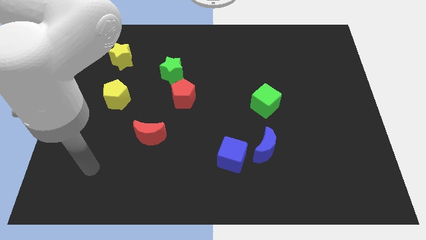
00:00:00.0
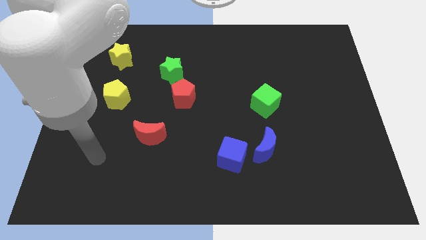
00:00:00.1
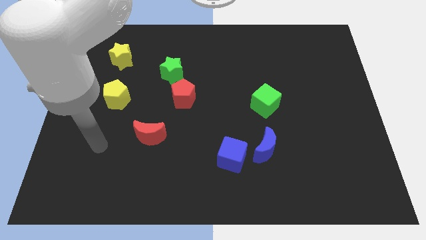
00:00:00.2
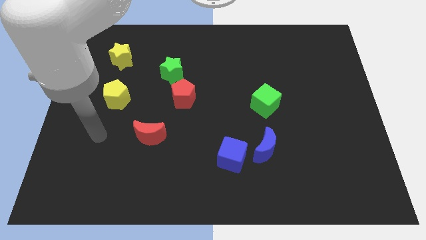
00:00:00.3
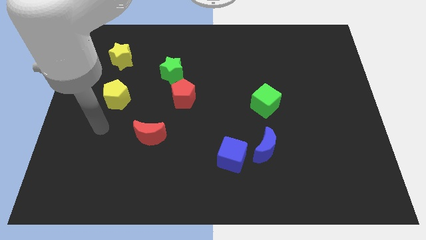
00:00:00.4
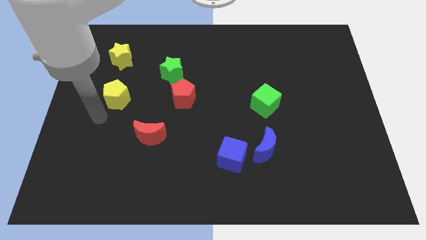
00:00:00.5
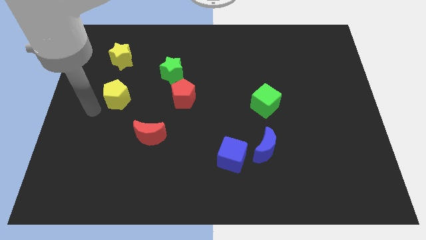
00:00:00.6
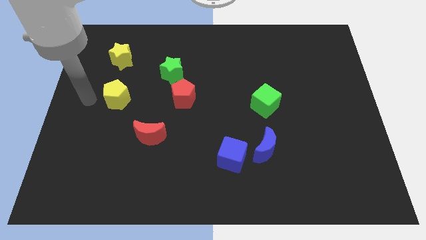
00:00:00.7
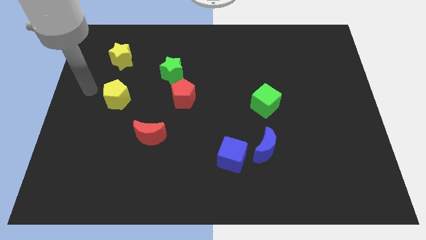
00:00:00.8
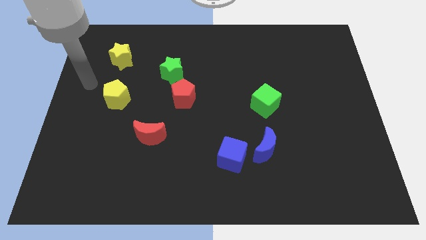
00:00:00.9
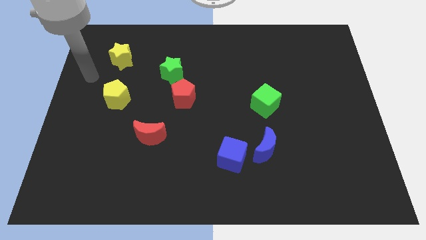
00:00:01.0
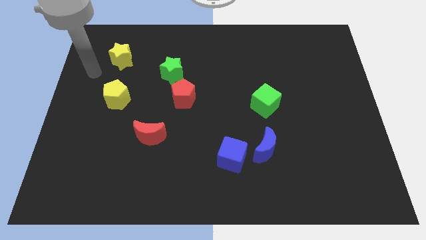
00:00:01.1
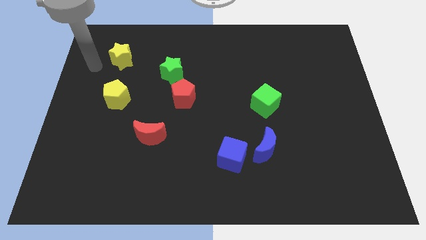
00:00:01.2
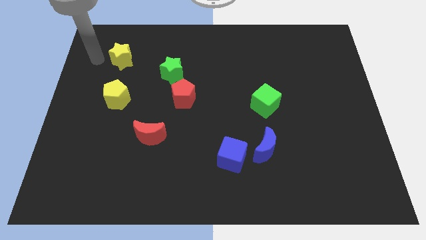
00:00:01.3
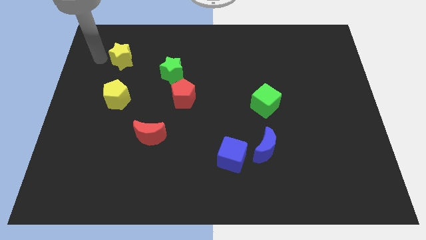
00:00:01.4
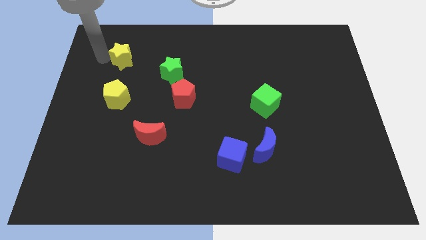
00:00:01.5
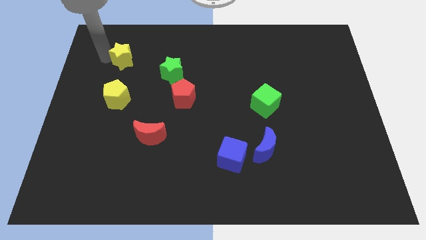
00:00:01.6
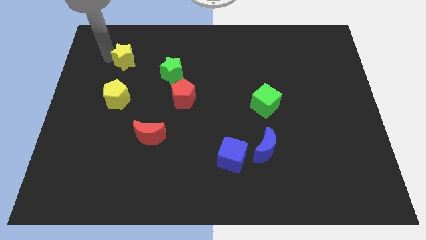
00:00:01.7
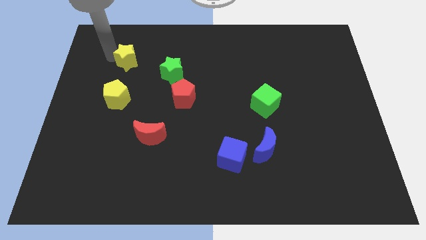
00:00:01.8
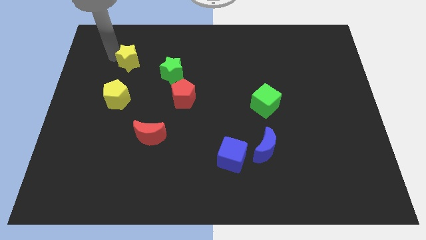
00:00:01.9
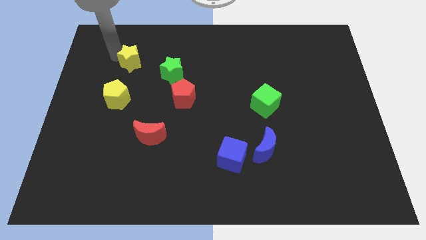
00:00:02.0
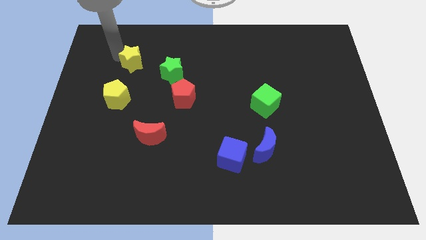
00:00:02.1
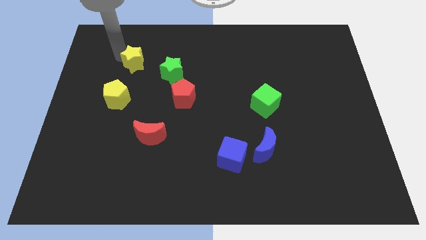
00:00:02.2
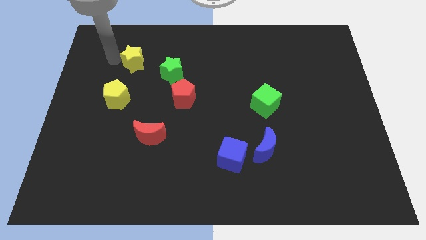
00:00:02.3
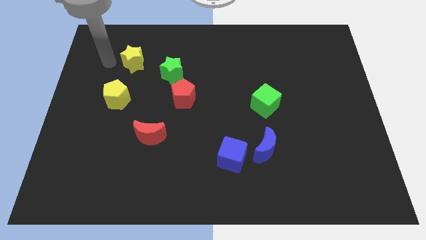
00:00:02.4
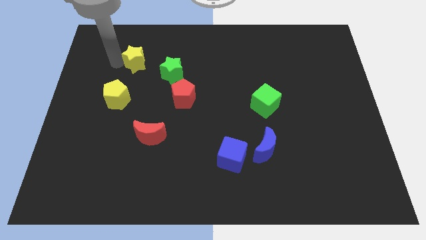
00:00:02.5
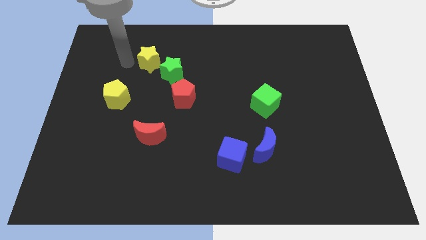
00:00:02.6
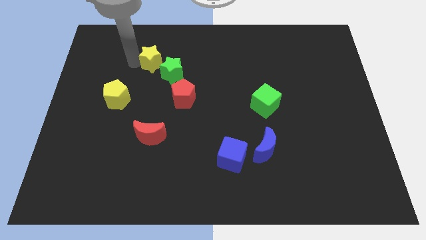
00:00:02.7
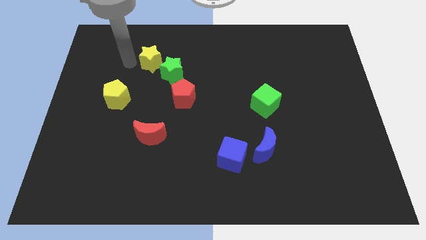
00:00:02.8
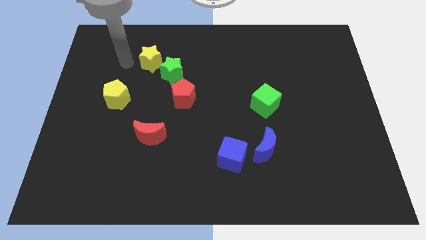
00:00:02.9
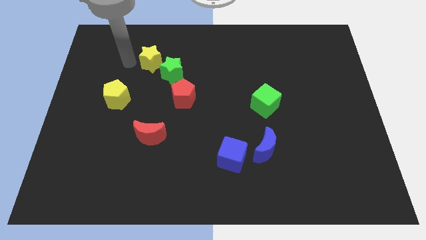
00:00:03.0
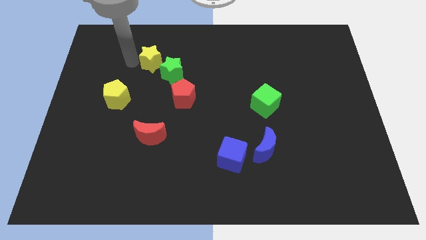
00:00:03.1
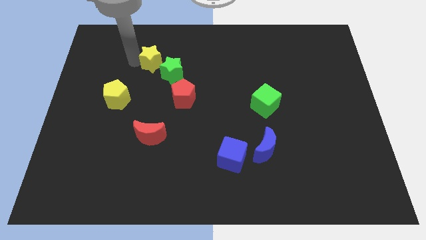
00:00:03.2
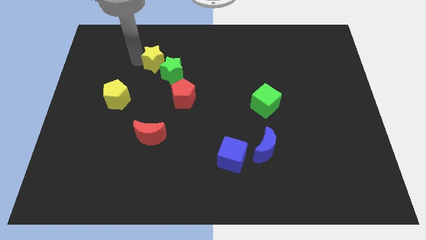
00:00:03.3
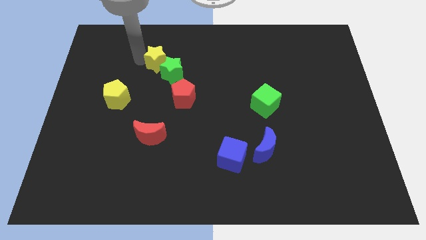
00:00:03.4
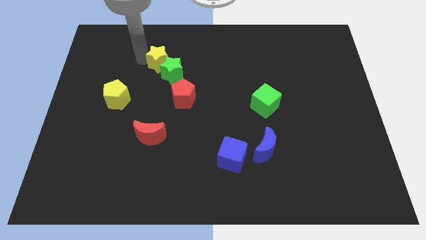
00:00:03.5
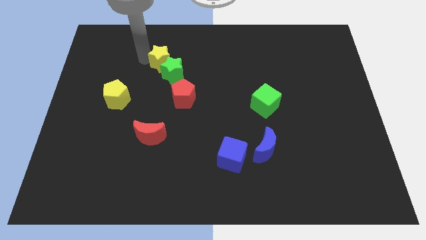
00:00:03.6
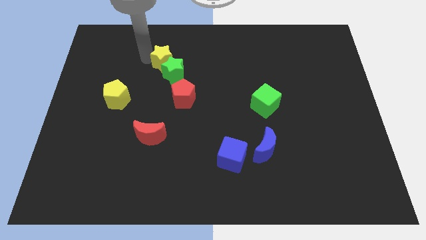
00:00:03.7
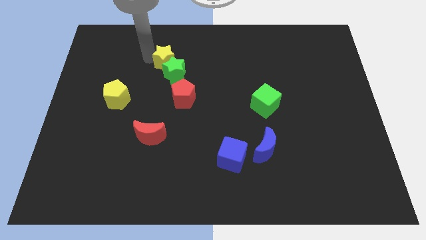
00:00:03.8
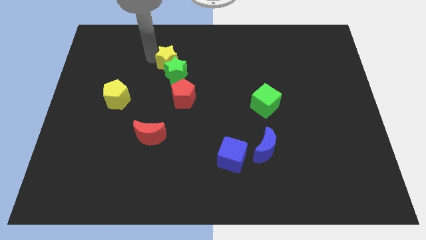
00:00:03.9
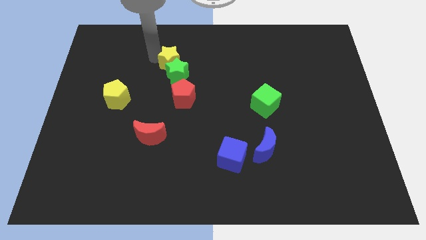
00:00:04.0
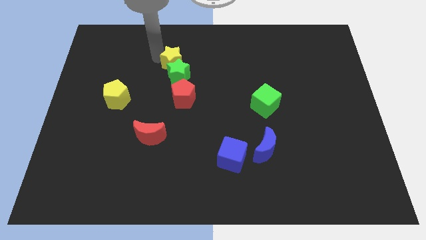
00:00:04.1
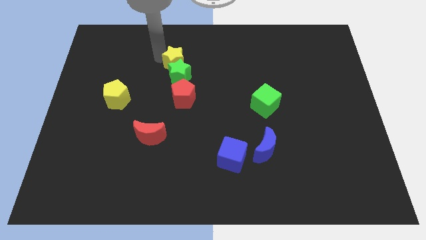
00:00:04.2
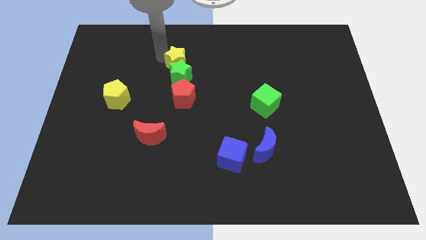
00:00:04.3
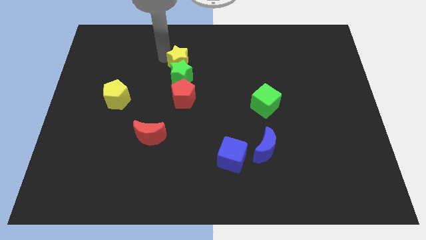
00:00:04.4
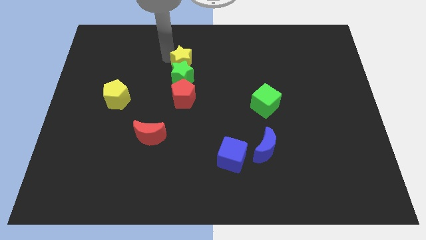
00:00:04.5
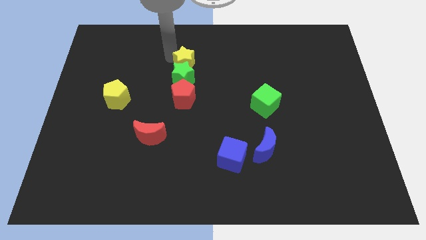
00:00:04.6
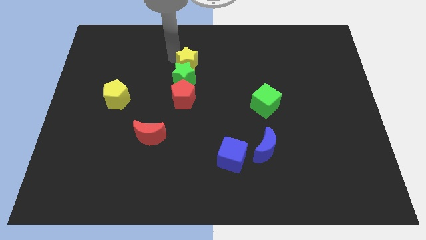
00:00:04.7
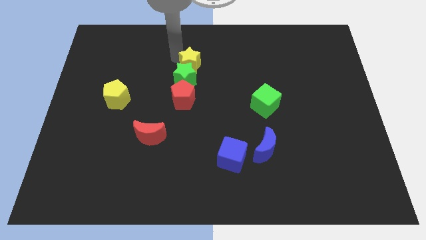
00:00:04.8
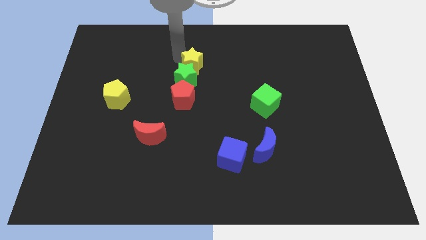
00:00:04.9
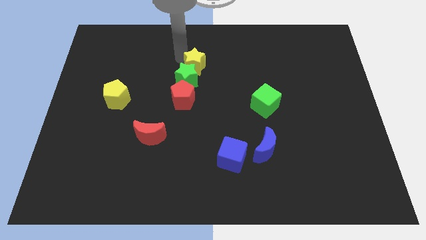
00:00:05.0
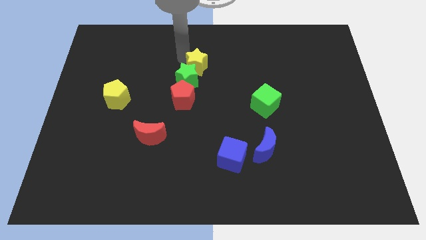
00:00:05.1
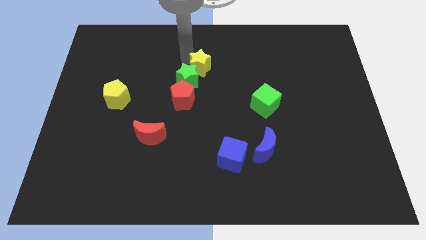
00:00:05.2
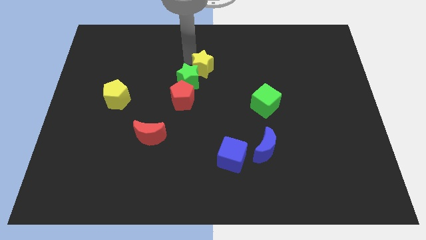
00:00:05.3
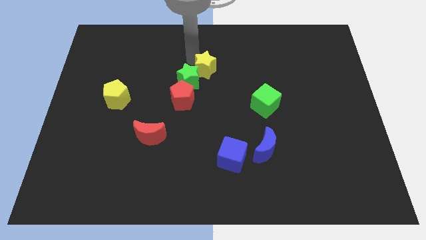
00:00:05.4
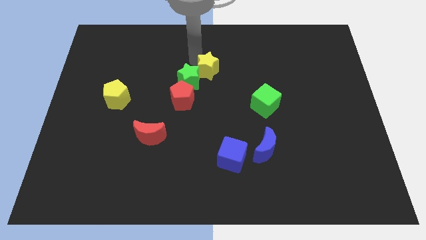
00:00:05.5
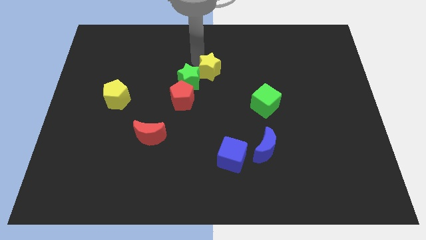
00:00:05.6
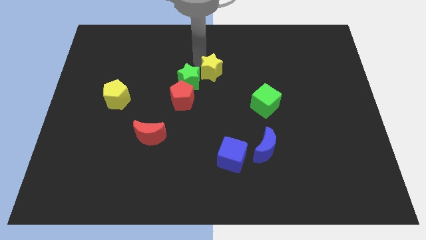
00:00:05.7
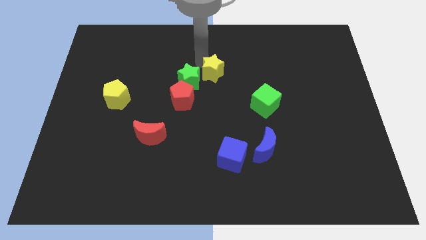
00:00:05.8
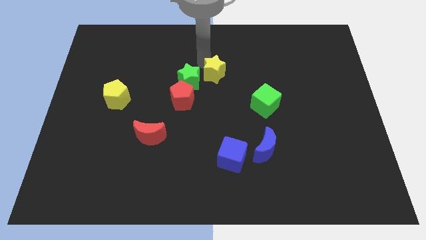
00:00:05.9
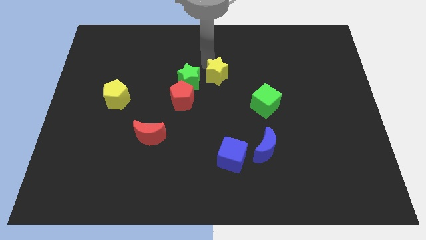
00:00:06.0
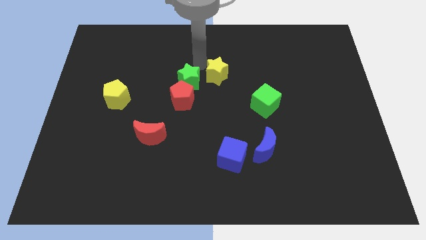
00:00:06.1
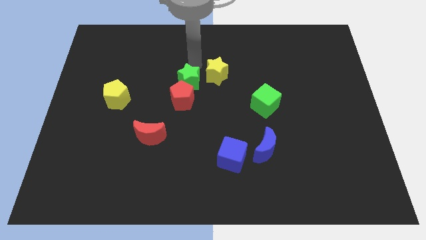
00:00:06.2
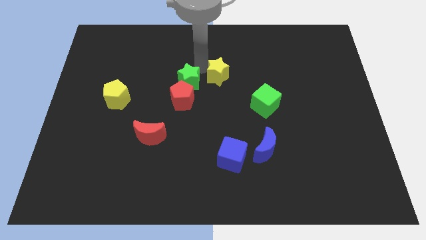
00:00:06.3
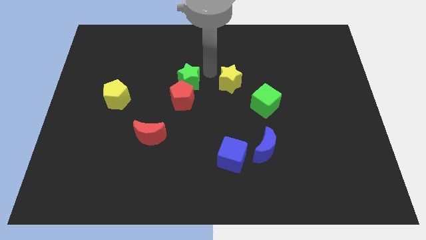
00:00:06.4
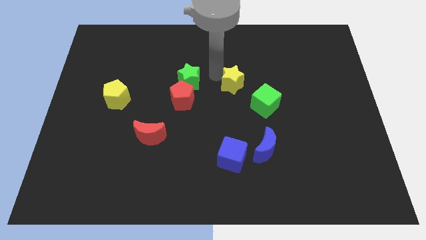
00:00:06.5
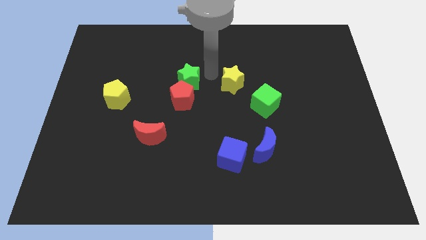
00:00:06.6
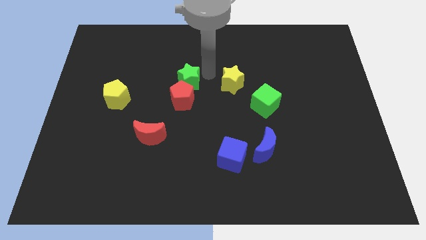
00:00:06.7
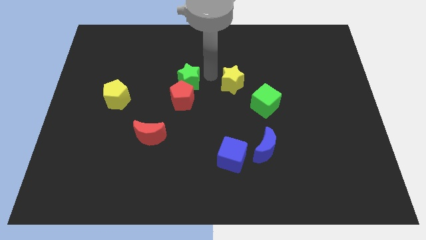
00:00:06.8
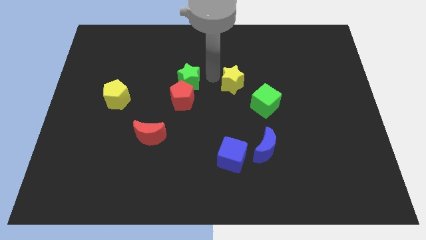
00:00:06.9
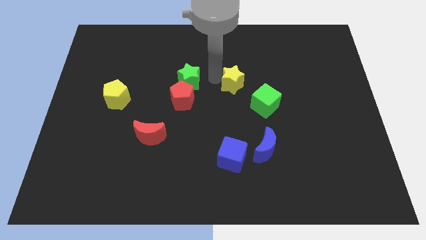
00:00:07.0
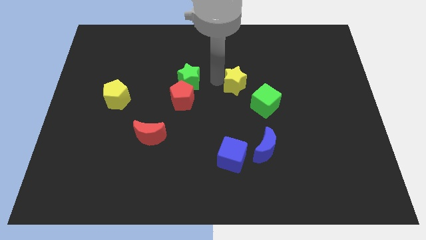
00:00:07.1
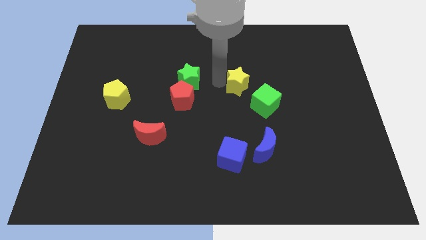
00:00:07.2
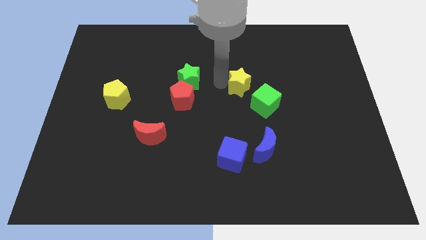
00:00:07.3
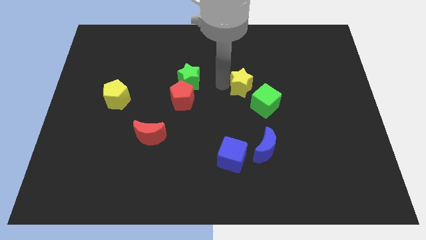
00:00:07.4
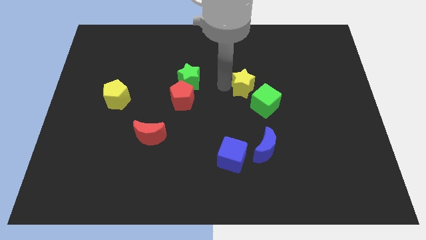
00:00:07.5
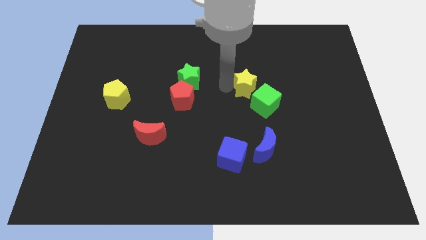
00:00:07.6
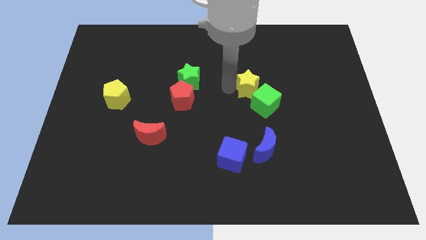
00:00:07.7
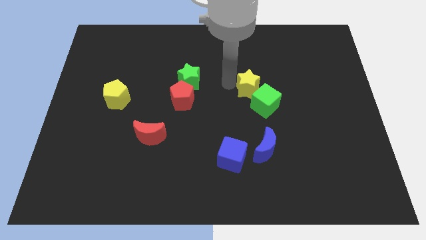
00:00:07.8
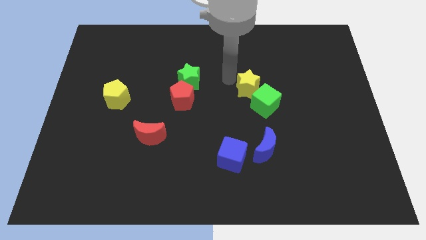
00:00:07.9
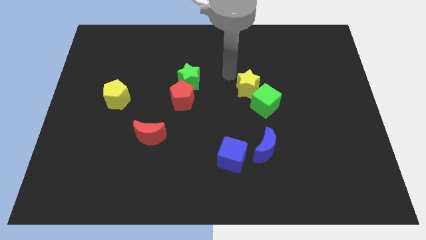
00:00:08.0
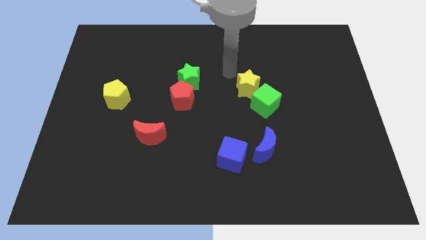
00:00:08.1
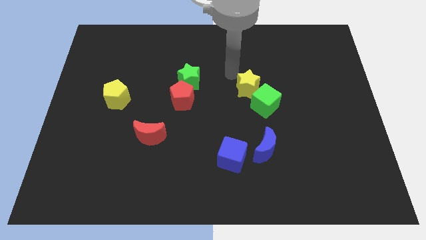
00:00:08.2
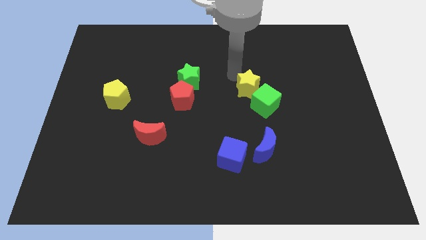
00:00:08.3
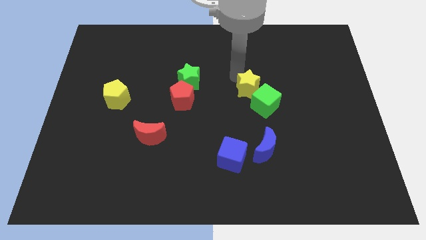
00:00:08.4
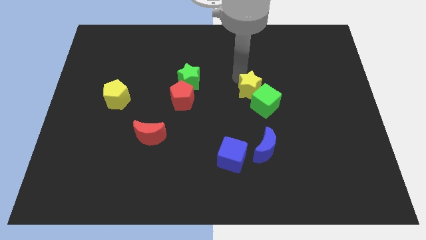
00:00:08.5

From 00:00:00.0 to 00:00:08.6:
push the yellow star next to the green cube
